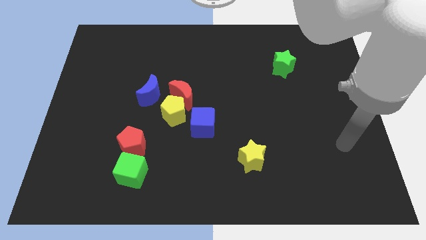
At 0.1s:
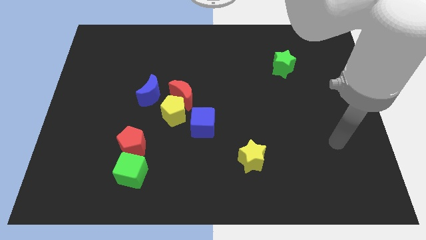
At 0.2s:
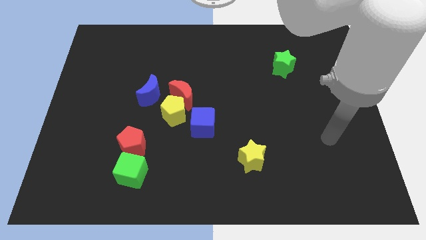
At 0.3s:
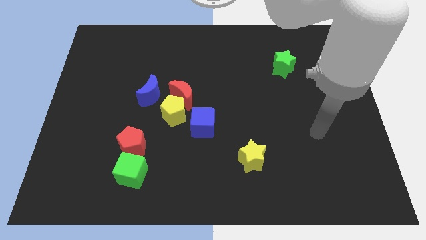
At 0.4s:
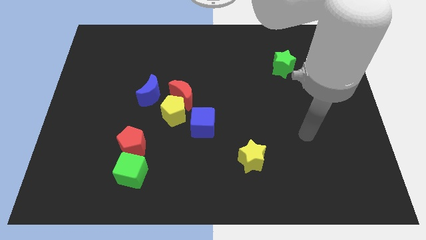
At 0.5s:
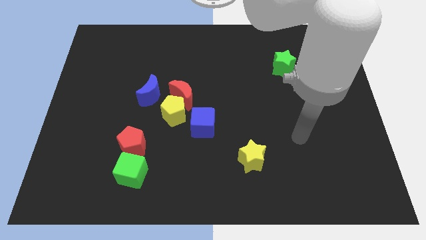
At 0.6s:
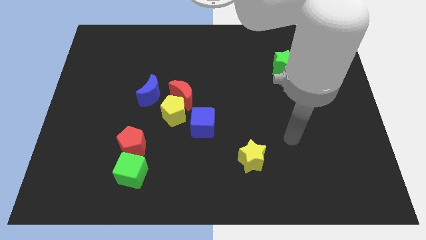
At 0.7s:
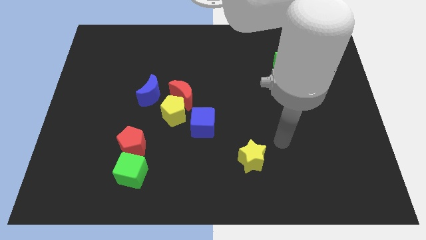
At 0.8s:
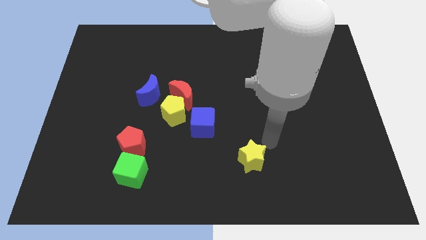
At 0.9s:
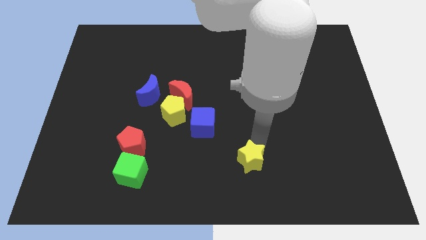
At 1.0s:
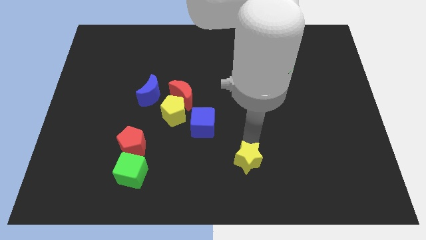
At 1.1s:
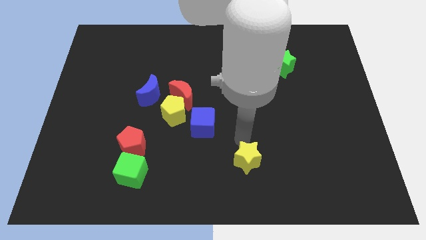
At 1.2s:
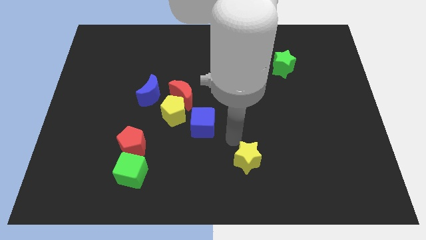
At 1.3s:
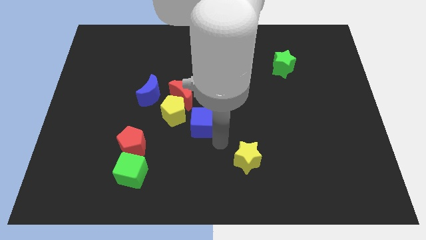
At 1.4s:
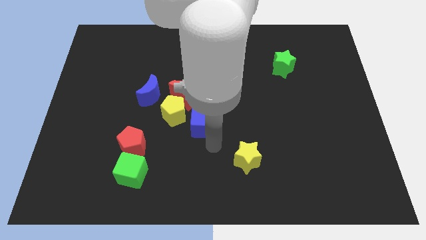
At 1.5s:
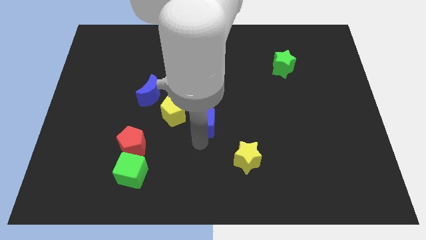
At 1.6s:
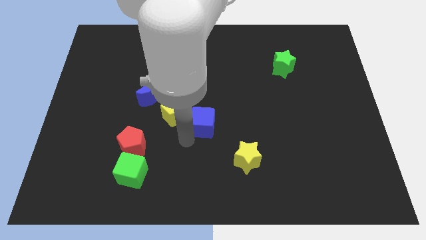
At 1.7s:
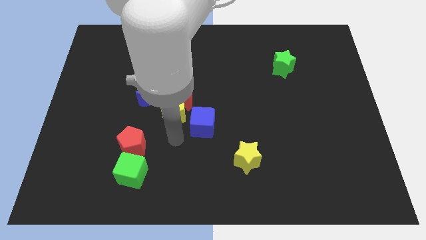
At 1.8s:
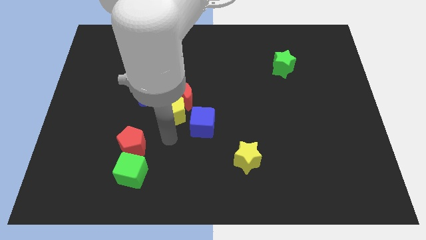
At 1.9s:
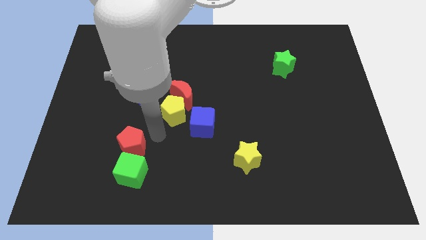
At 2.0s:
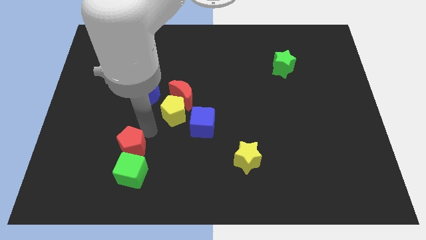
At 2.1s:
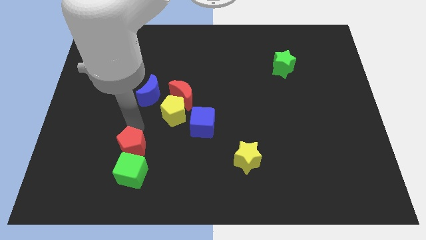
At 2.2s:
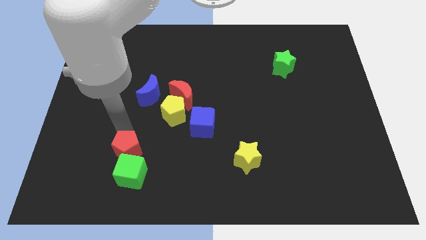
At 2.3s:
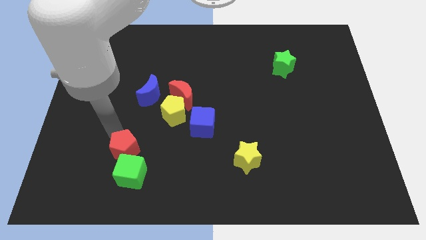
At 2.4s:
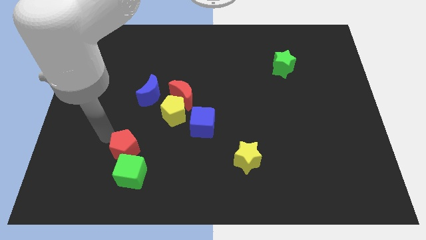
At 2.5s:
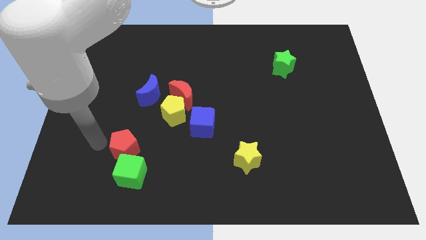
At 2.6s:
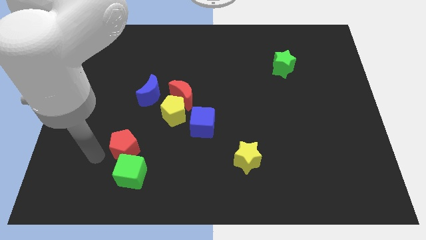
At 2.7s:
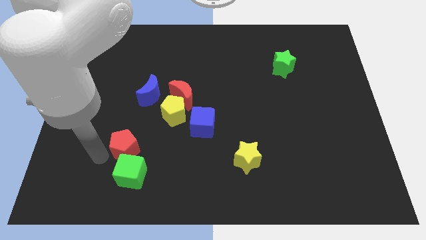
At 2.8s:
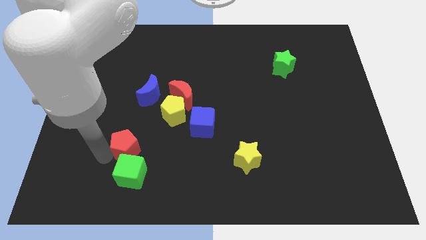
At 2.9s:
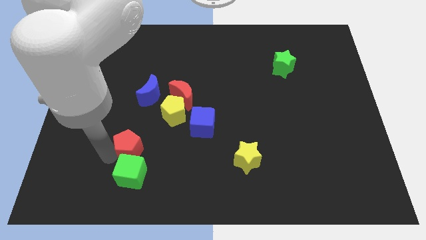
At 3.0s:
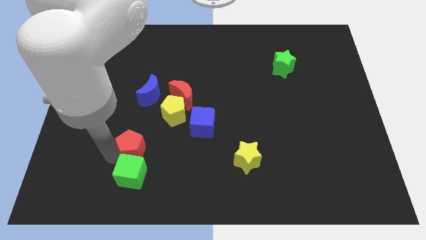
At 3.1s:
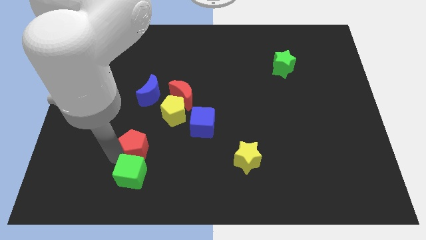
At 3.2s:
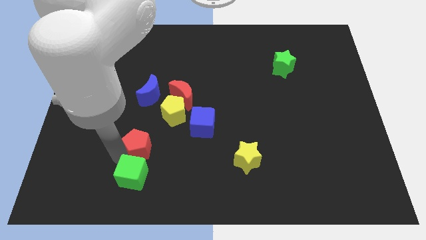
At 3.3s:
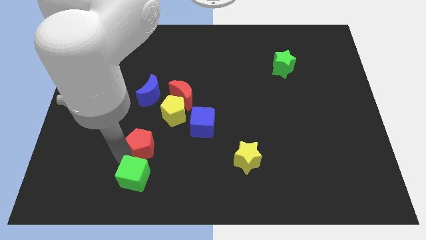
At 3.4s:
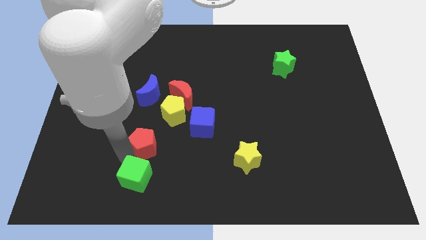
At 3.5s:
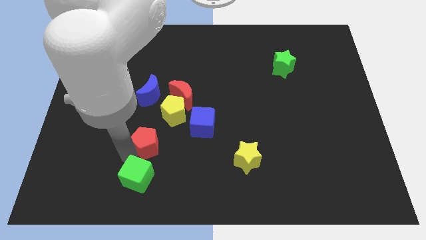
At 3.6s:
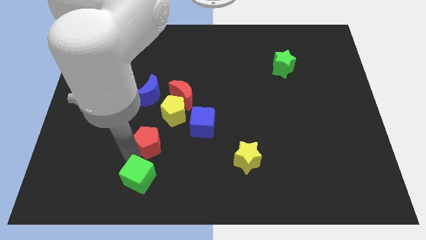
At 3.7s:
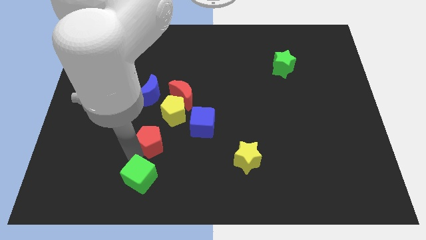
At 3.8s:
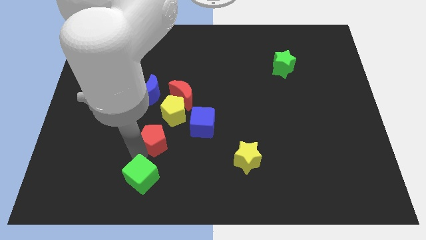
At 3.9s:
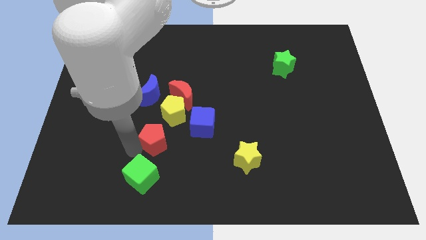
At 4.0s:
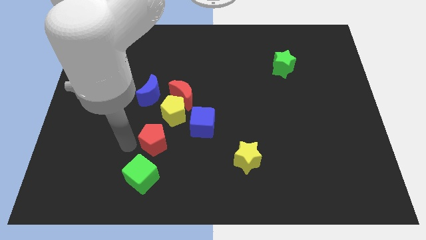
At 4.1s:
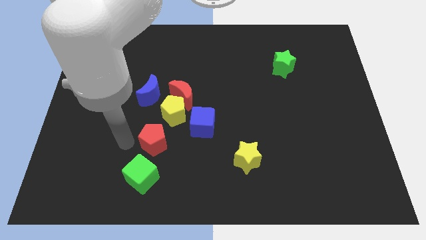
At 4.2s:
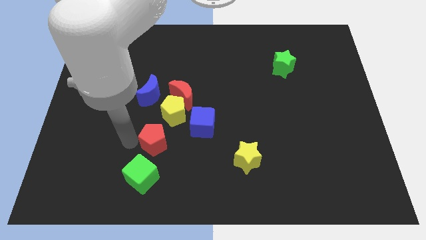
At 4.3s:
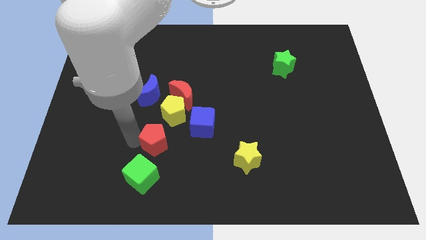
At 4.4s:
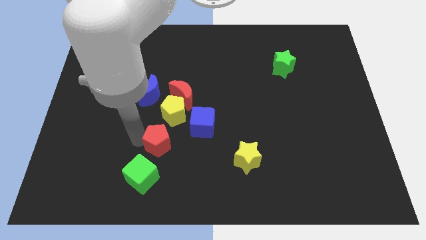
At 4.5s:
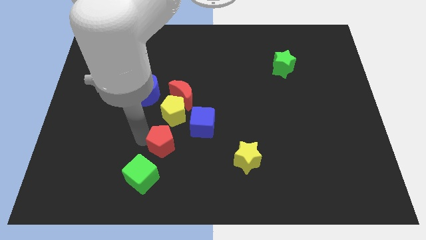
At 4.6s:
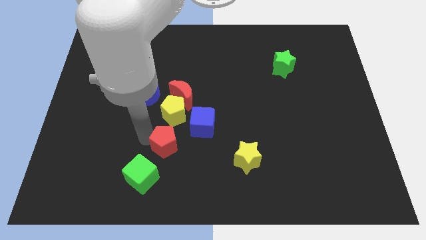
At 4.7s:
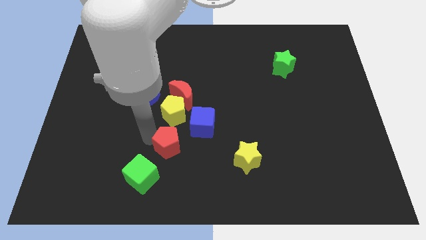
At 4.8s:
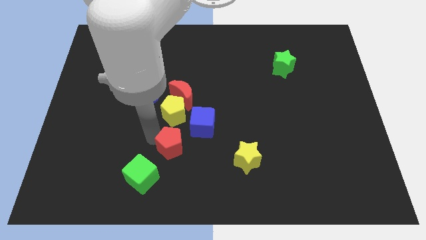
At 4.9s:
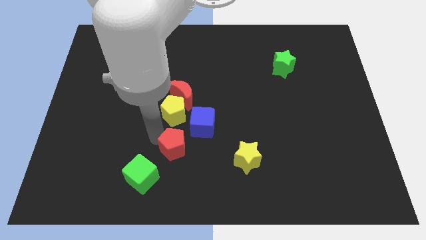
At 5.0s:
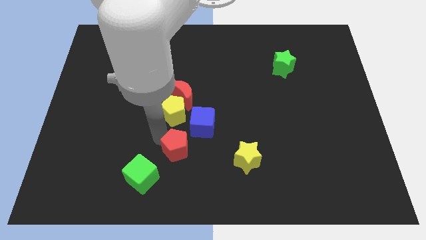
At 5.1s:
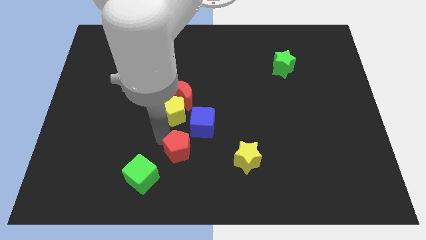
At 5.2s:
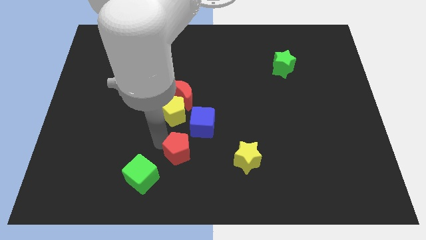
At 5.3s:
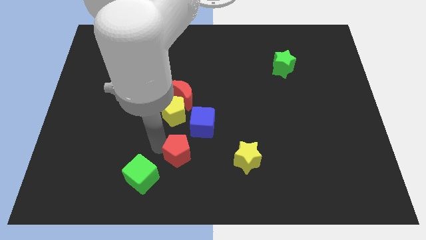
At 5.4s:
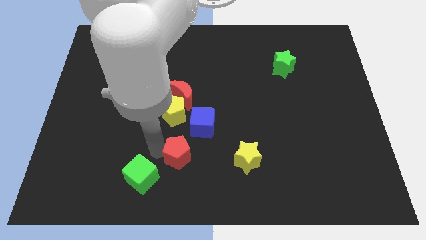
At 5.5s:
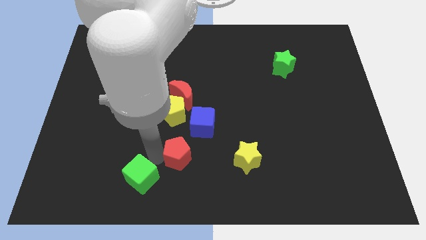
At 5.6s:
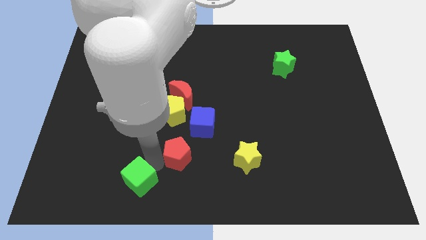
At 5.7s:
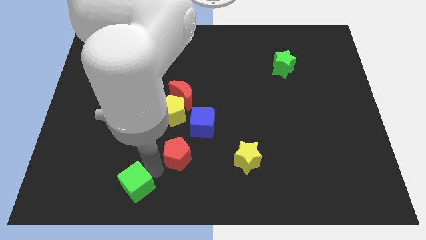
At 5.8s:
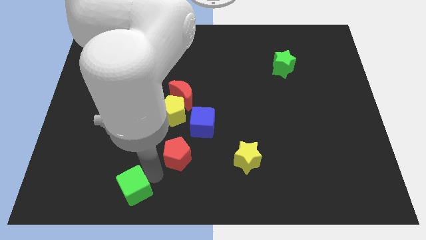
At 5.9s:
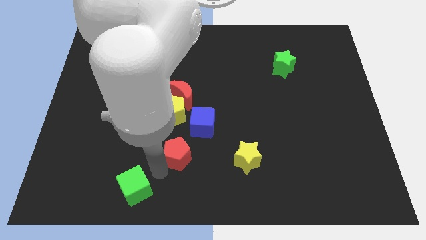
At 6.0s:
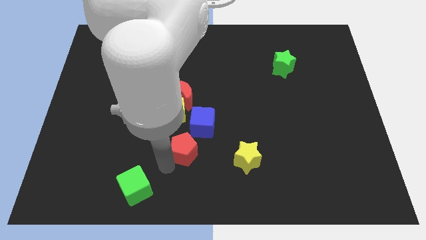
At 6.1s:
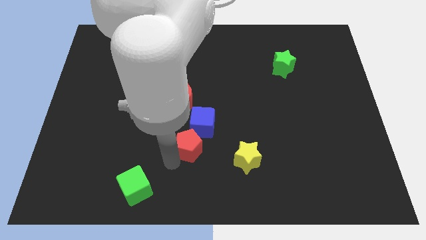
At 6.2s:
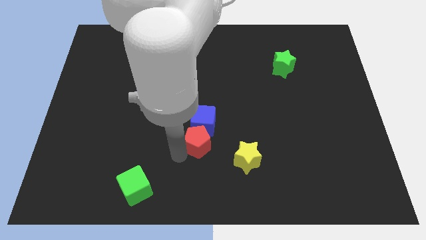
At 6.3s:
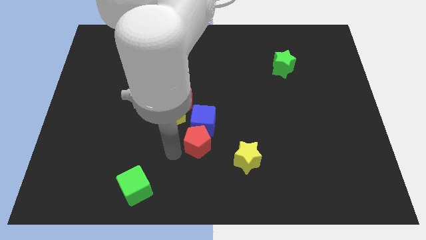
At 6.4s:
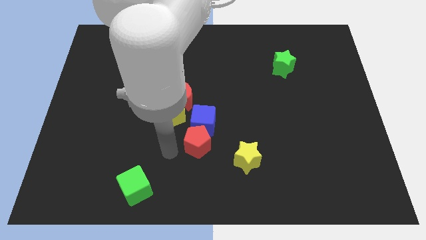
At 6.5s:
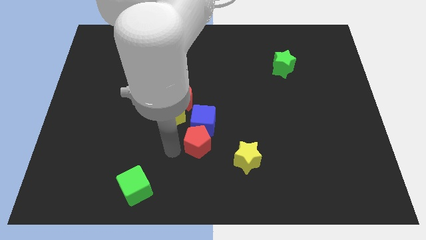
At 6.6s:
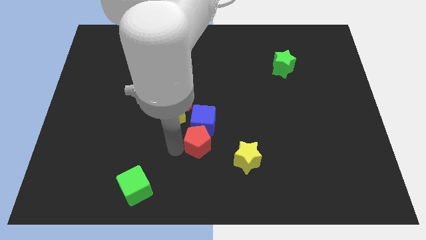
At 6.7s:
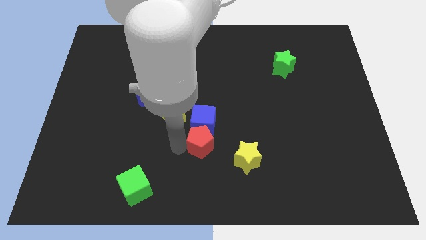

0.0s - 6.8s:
move the red pentagon to the center of the board

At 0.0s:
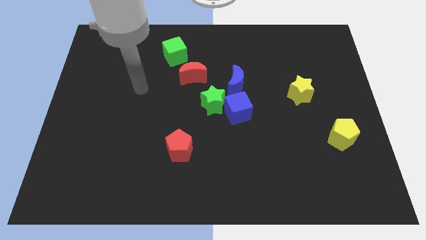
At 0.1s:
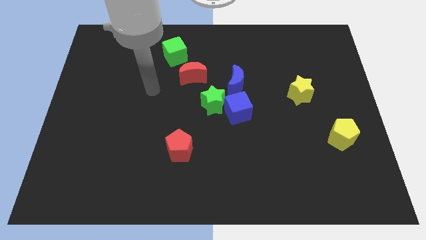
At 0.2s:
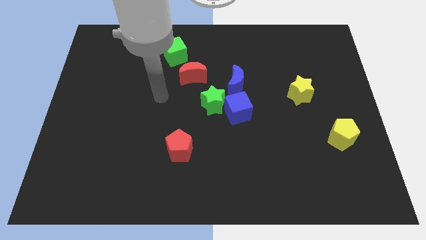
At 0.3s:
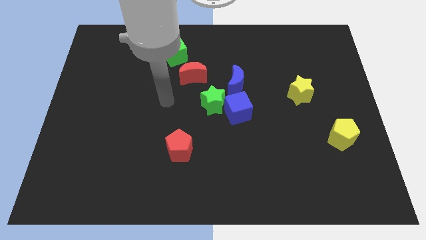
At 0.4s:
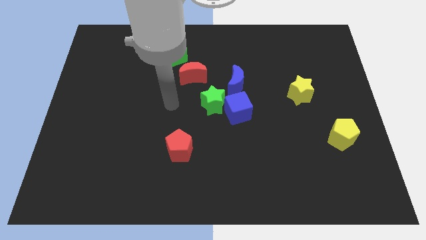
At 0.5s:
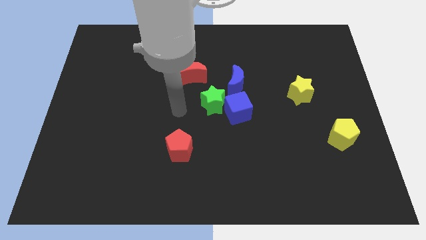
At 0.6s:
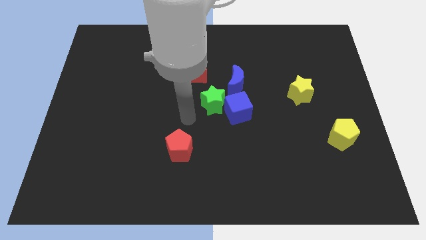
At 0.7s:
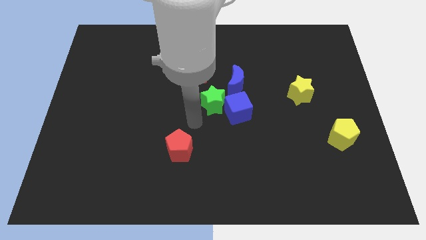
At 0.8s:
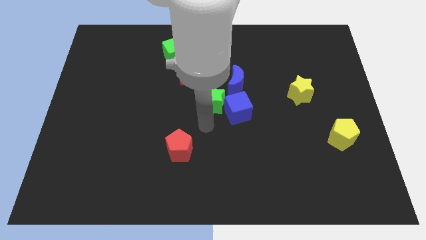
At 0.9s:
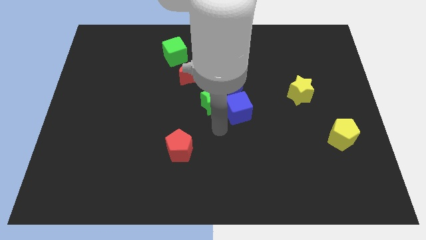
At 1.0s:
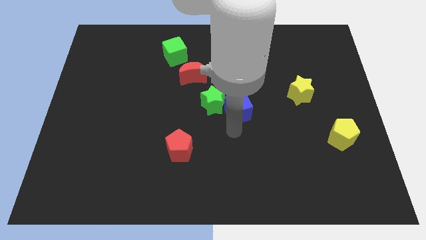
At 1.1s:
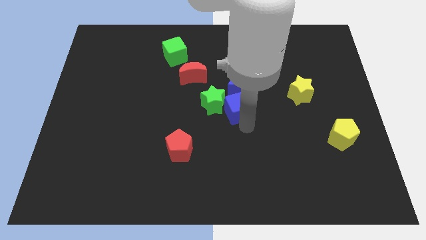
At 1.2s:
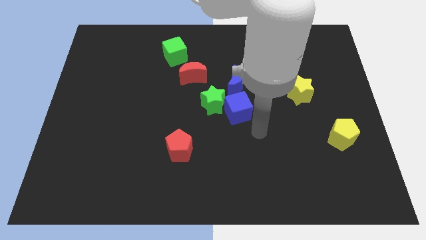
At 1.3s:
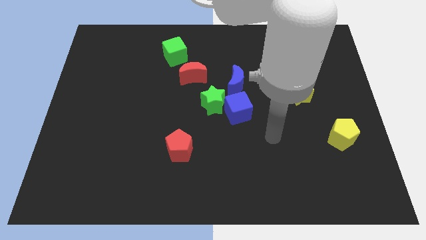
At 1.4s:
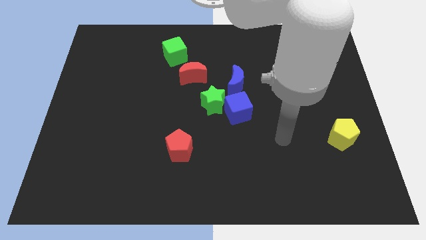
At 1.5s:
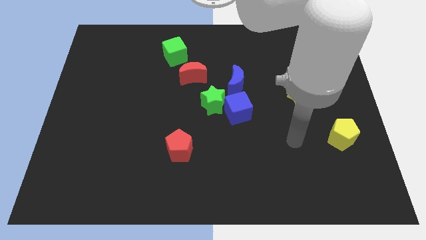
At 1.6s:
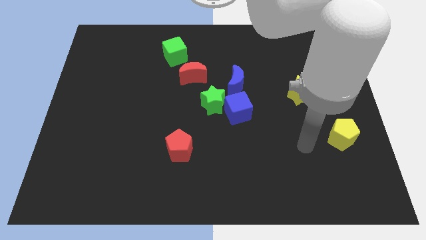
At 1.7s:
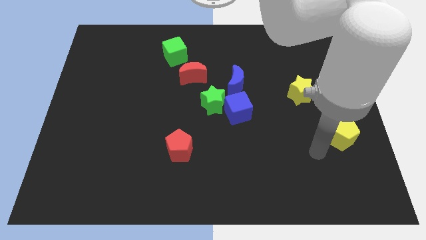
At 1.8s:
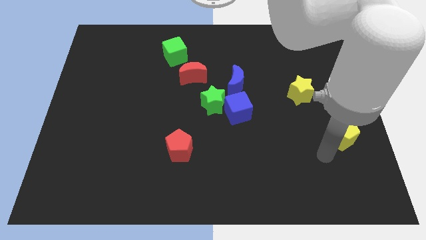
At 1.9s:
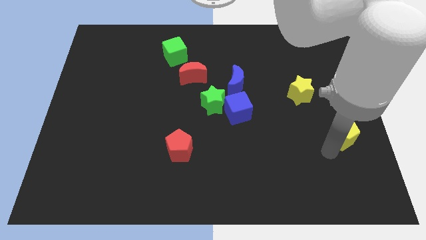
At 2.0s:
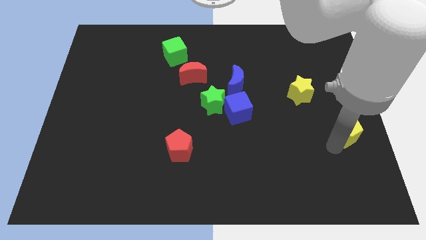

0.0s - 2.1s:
slide the yellow pentagon to the right side
